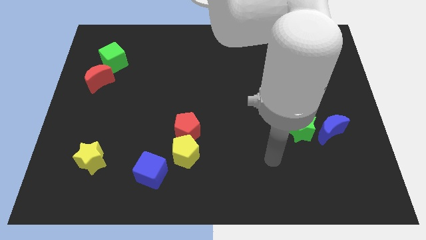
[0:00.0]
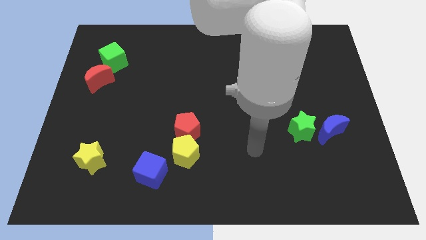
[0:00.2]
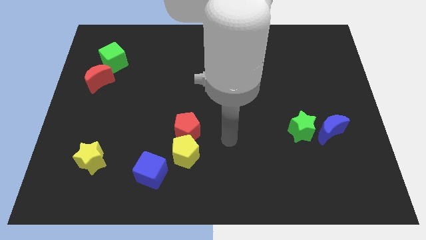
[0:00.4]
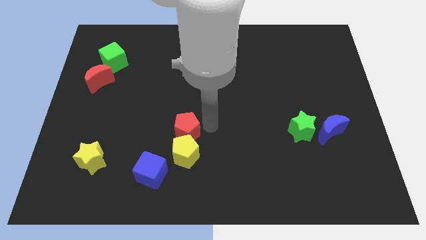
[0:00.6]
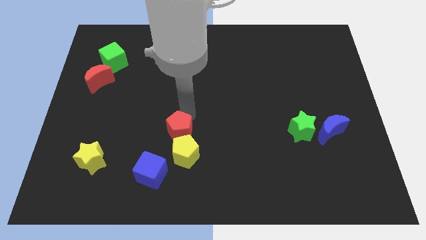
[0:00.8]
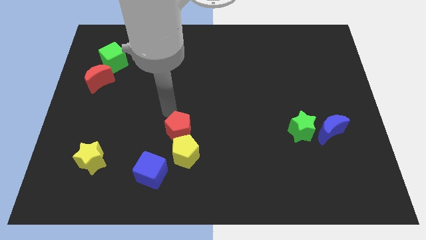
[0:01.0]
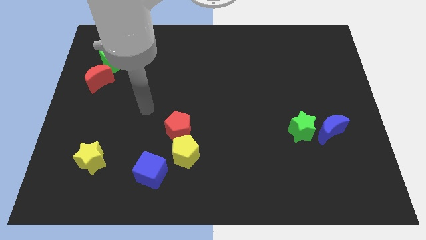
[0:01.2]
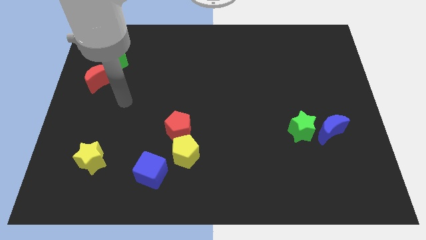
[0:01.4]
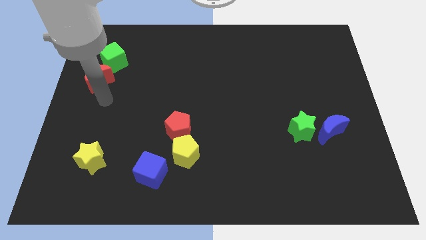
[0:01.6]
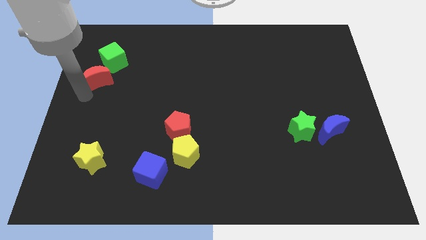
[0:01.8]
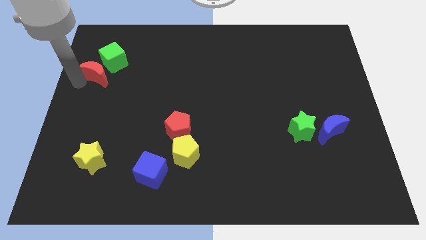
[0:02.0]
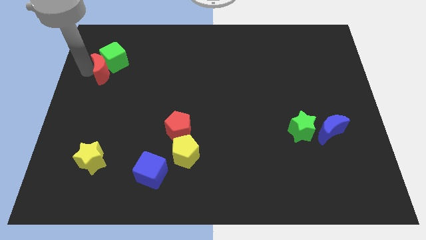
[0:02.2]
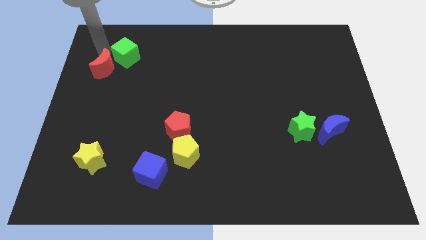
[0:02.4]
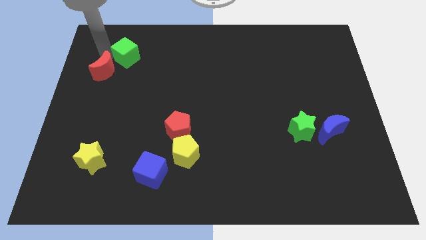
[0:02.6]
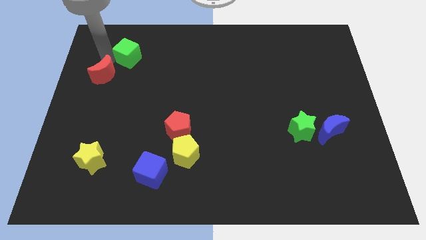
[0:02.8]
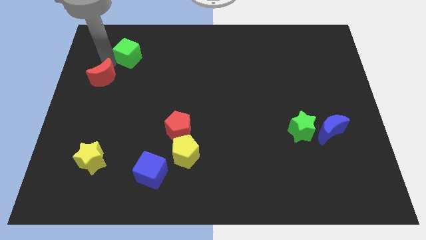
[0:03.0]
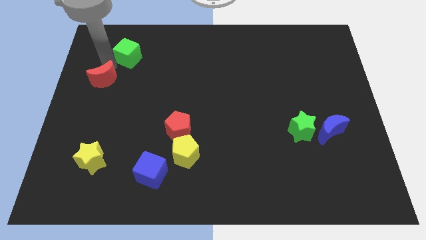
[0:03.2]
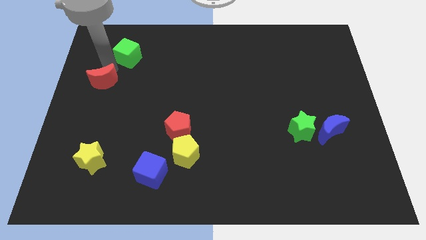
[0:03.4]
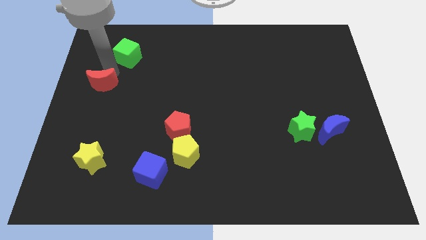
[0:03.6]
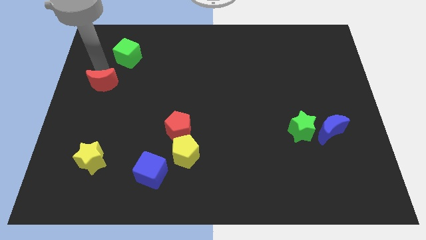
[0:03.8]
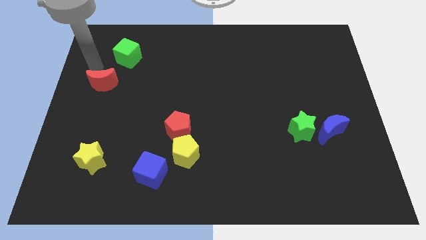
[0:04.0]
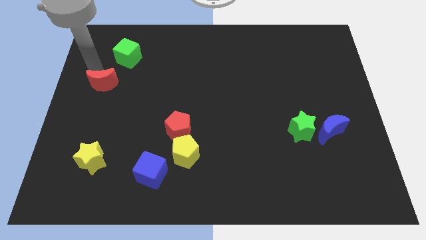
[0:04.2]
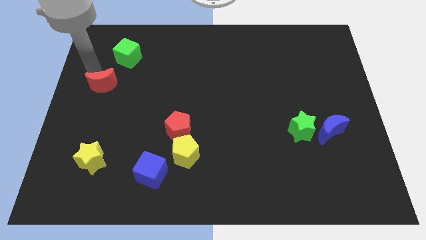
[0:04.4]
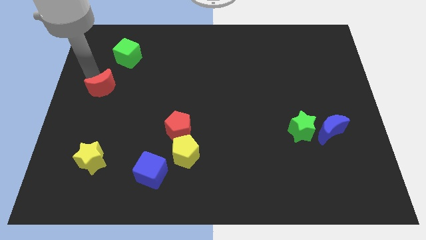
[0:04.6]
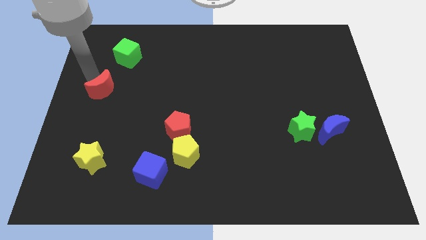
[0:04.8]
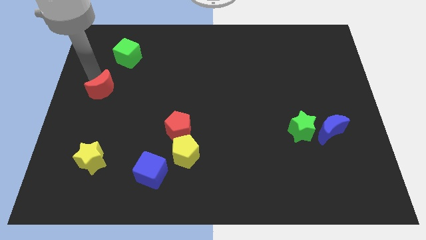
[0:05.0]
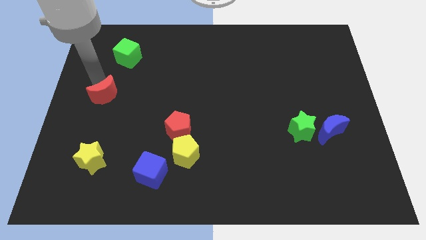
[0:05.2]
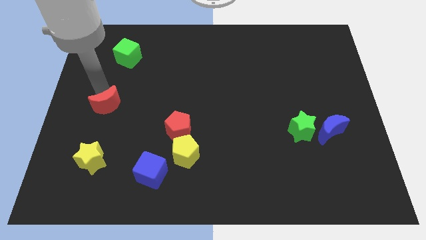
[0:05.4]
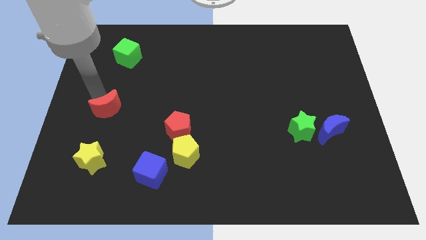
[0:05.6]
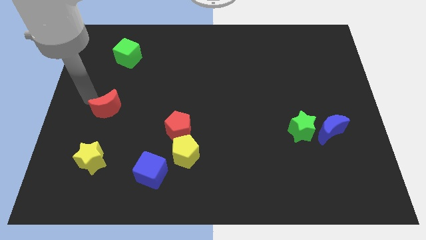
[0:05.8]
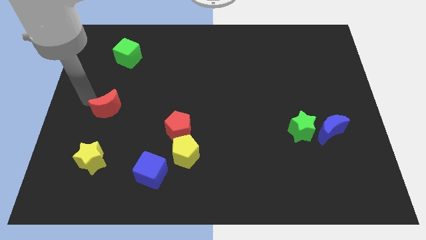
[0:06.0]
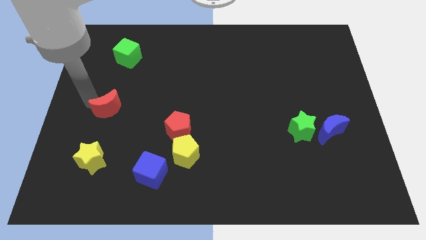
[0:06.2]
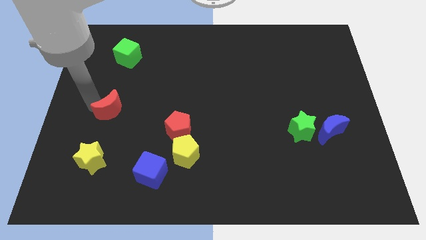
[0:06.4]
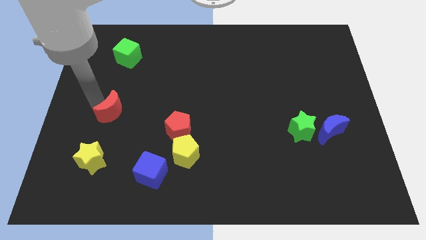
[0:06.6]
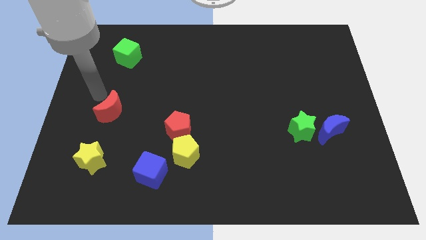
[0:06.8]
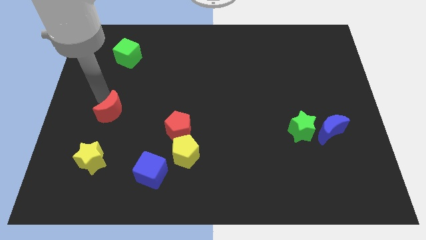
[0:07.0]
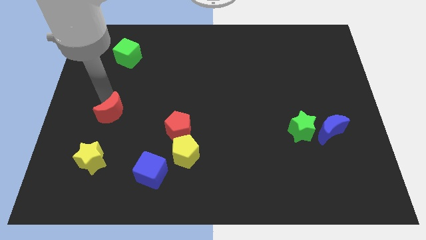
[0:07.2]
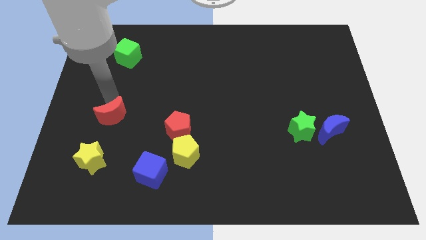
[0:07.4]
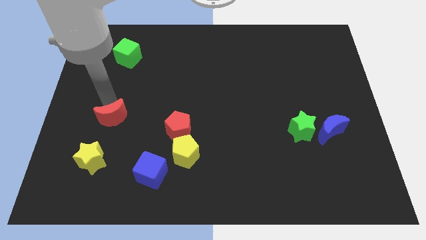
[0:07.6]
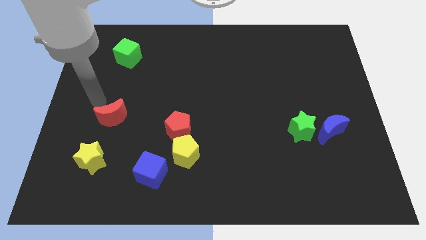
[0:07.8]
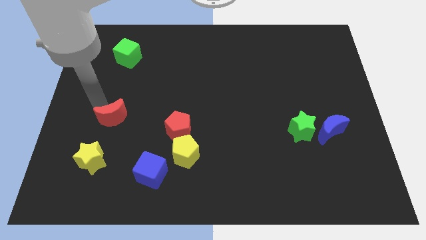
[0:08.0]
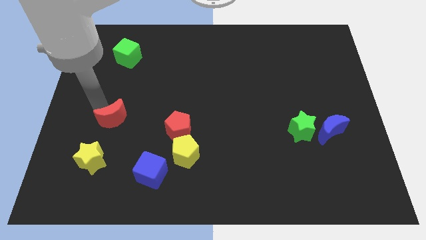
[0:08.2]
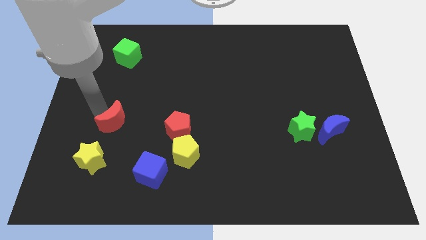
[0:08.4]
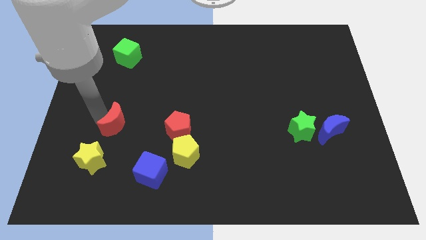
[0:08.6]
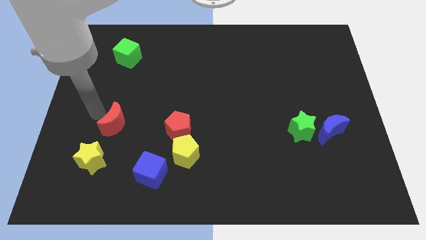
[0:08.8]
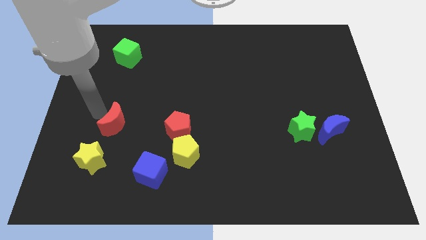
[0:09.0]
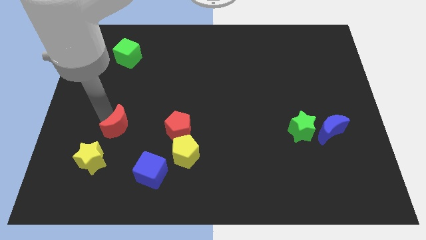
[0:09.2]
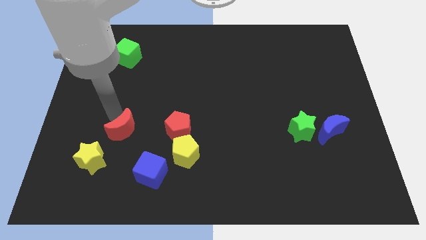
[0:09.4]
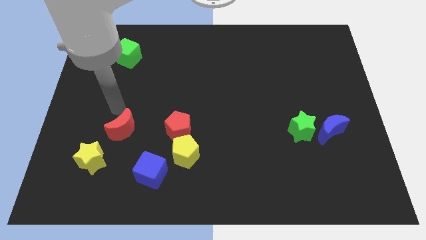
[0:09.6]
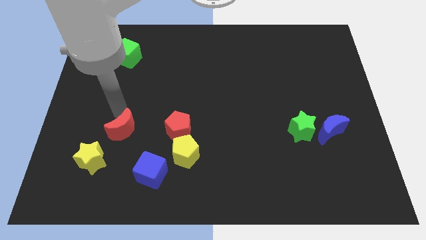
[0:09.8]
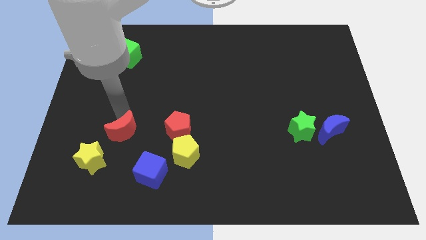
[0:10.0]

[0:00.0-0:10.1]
slide the red moon diagonally up and to the left of the blue cube

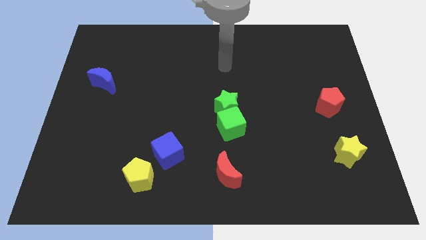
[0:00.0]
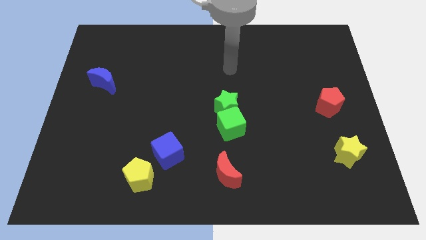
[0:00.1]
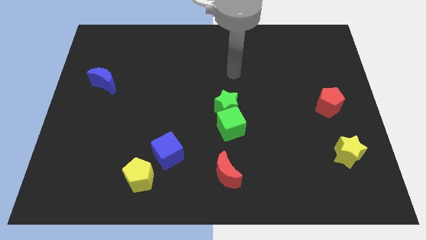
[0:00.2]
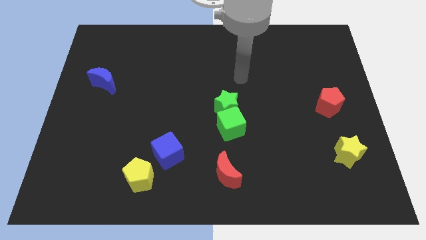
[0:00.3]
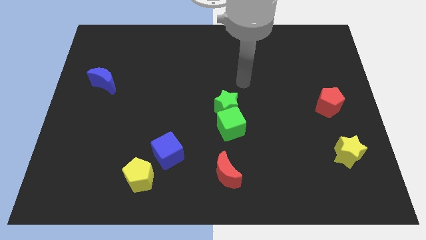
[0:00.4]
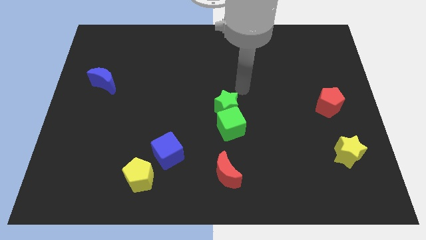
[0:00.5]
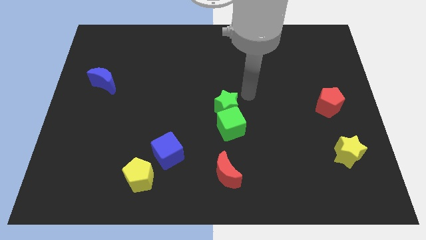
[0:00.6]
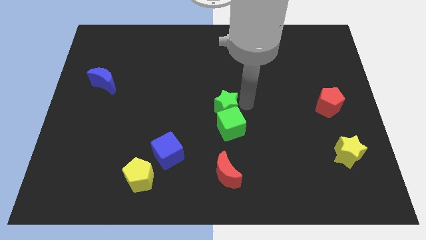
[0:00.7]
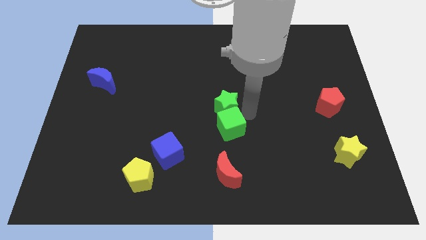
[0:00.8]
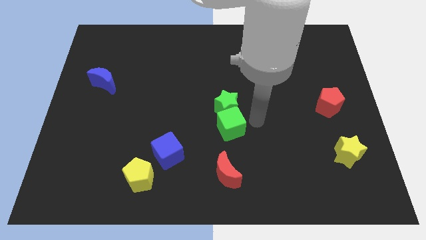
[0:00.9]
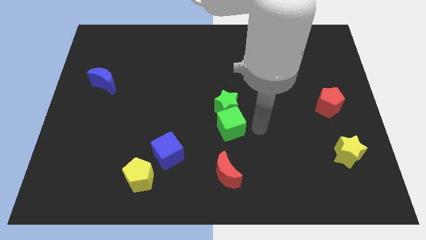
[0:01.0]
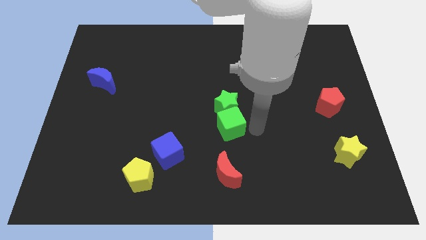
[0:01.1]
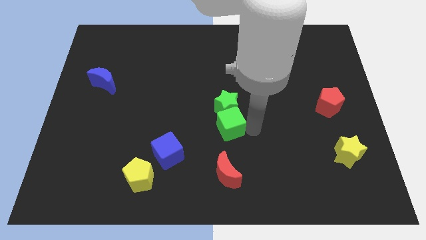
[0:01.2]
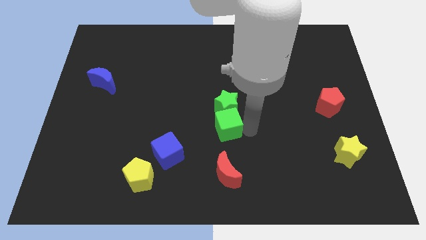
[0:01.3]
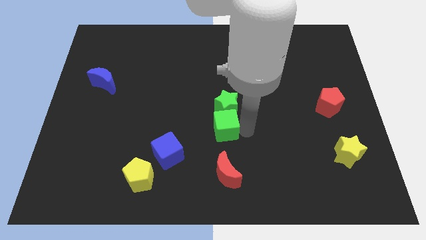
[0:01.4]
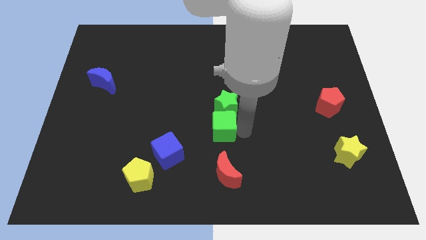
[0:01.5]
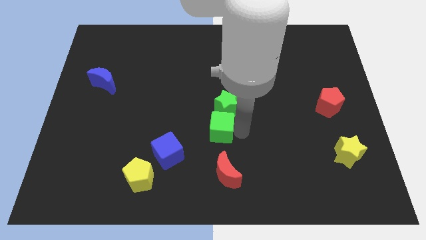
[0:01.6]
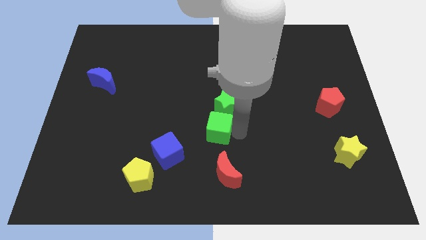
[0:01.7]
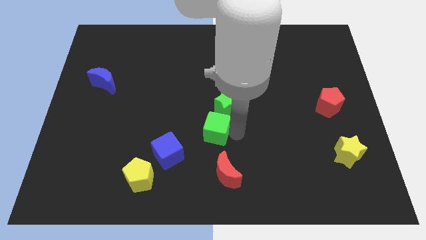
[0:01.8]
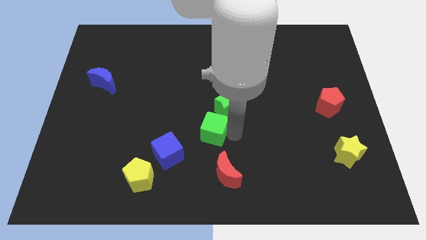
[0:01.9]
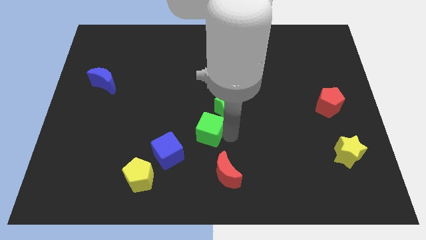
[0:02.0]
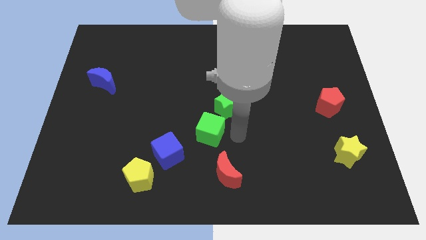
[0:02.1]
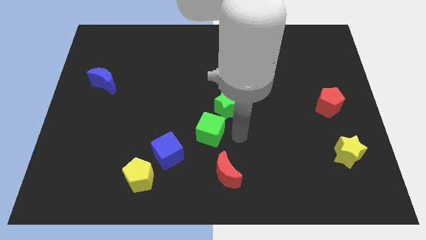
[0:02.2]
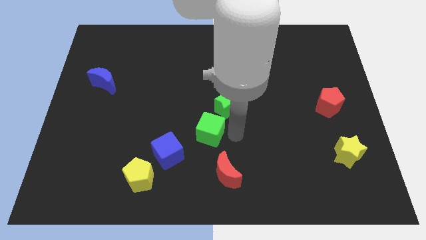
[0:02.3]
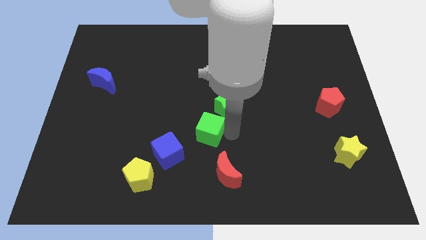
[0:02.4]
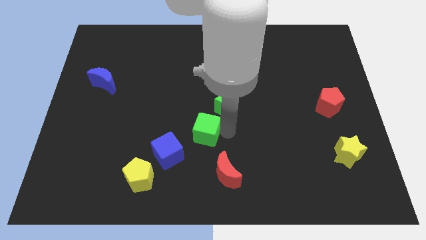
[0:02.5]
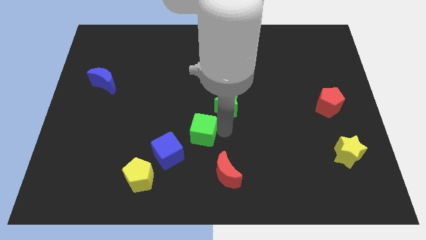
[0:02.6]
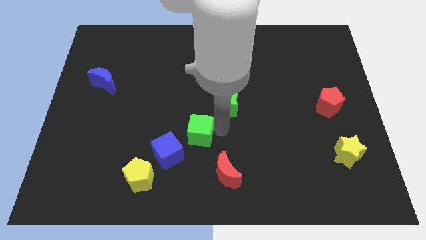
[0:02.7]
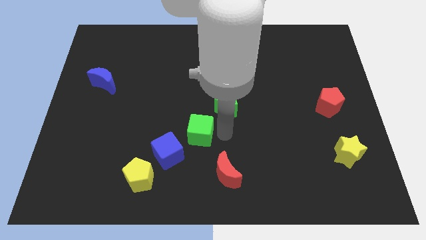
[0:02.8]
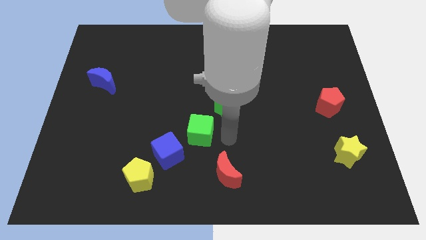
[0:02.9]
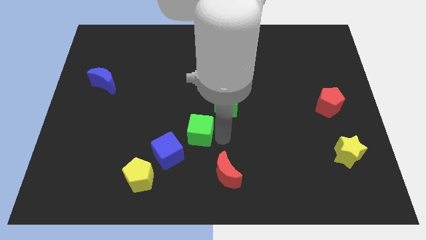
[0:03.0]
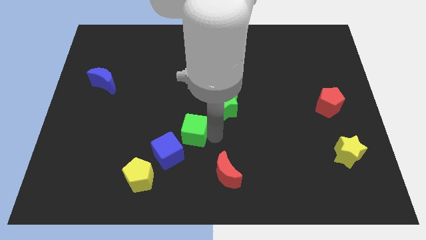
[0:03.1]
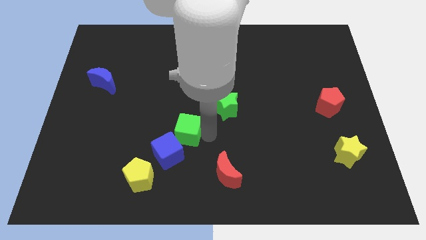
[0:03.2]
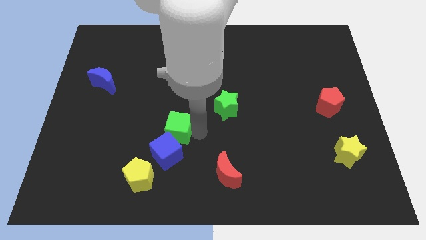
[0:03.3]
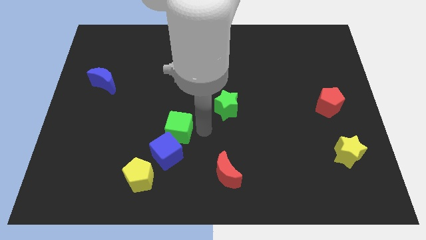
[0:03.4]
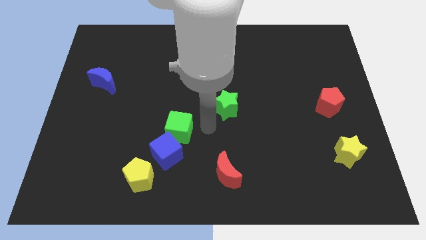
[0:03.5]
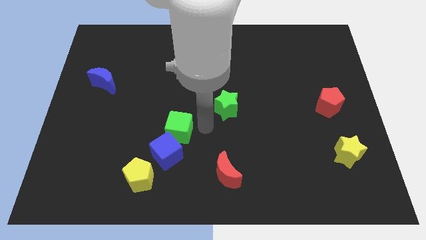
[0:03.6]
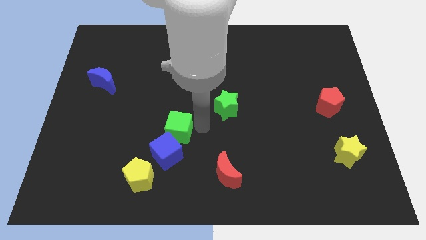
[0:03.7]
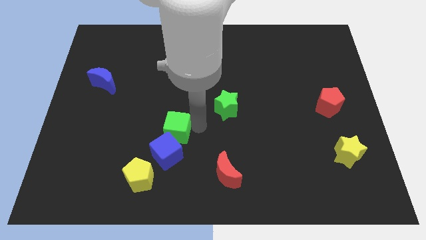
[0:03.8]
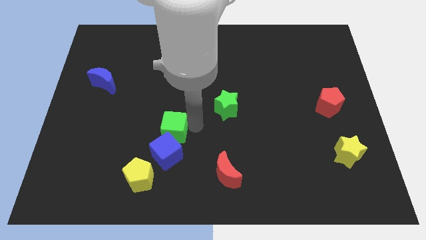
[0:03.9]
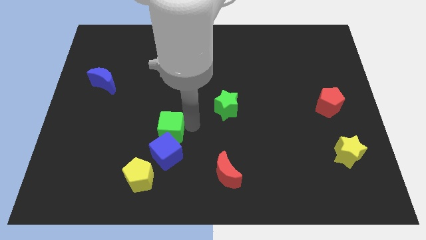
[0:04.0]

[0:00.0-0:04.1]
push the green cube to the top left side of the blue cube
